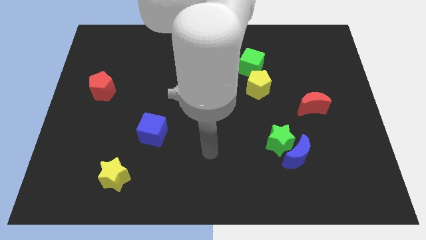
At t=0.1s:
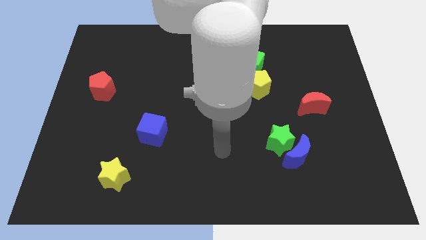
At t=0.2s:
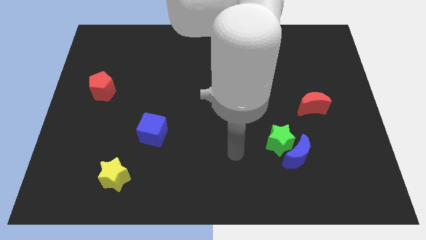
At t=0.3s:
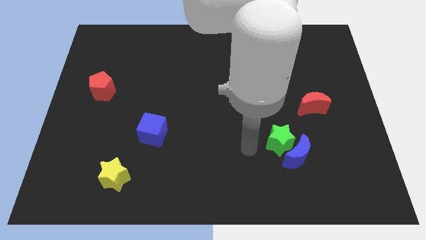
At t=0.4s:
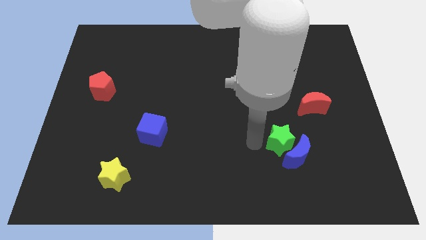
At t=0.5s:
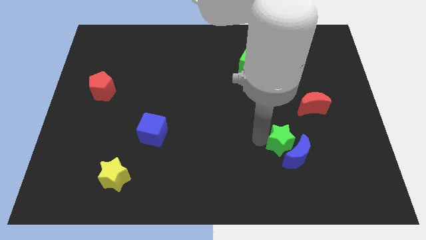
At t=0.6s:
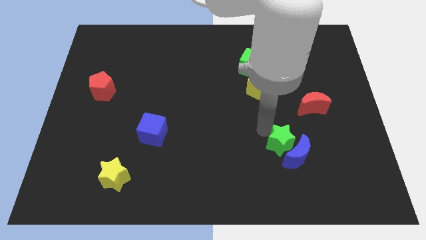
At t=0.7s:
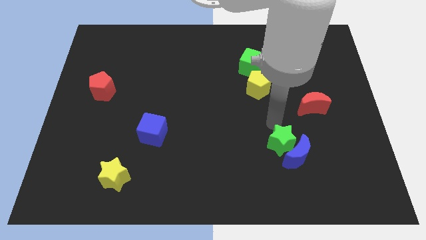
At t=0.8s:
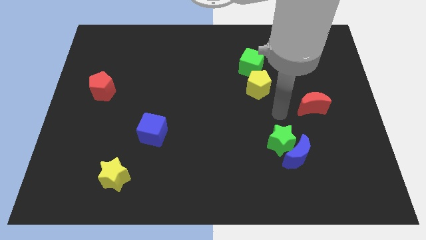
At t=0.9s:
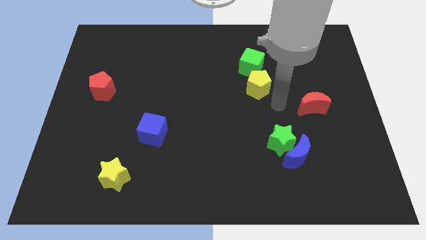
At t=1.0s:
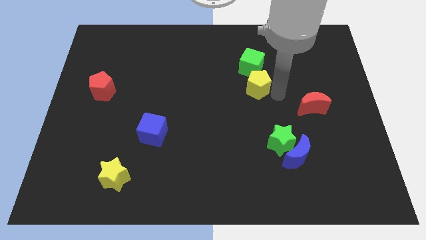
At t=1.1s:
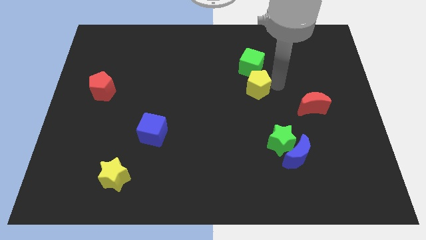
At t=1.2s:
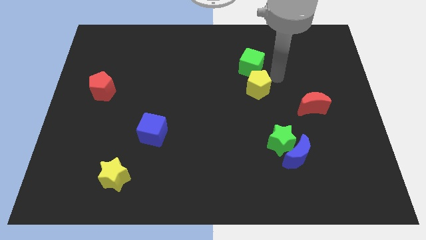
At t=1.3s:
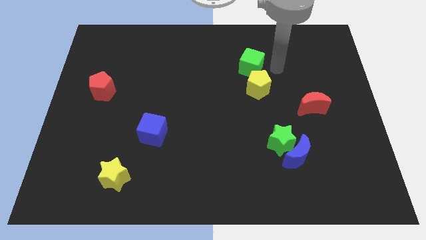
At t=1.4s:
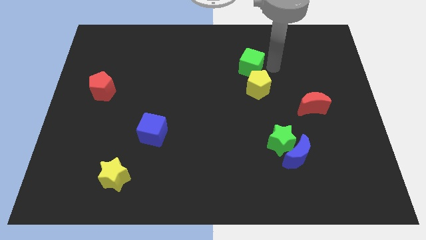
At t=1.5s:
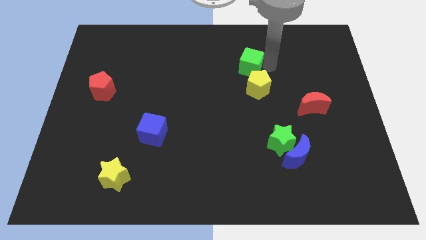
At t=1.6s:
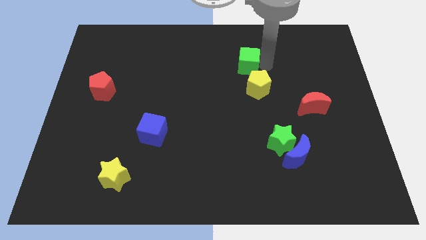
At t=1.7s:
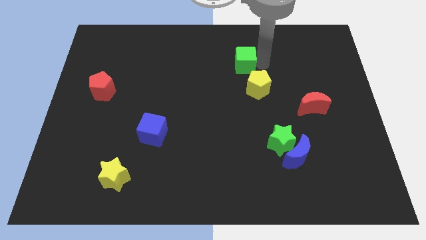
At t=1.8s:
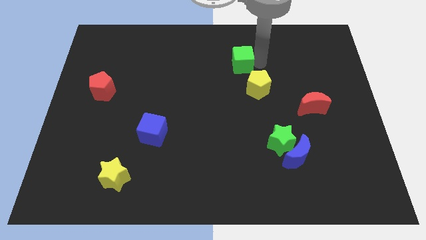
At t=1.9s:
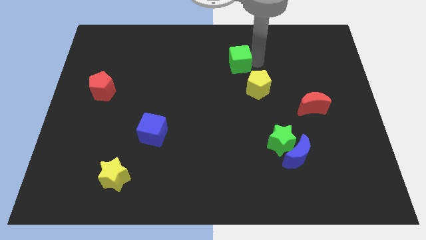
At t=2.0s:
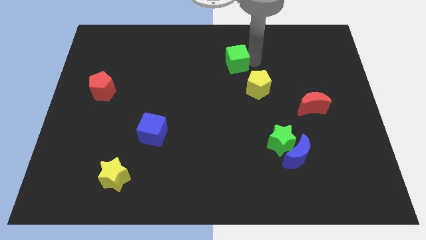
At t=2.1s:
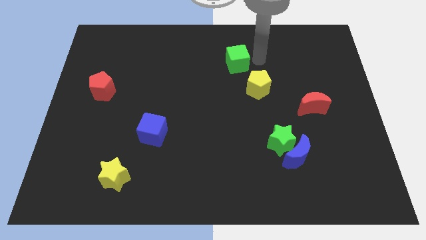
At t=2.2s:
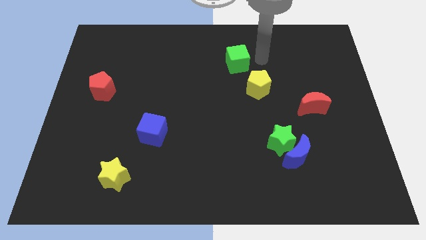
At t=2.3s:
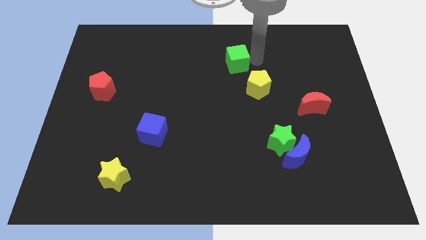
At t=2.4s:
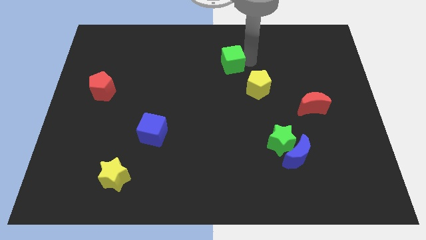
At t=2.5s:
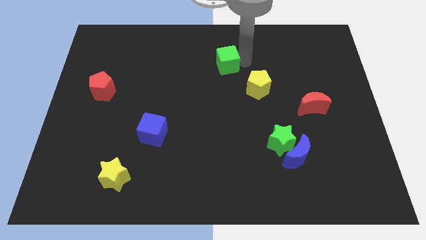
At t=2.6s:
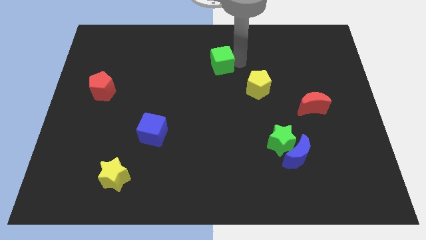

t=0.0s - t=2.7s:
move the green cube to the left somewhat

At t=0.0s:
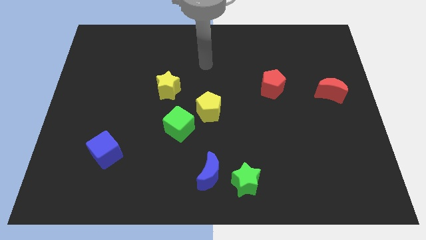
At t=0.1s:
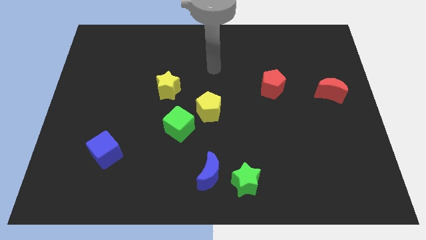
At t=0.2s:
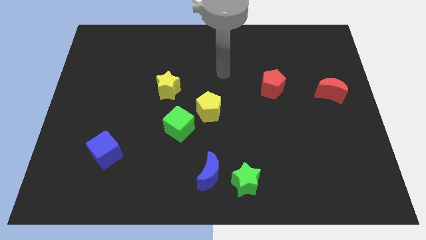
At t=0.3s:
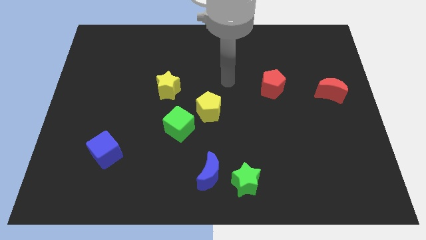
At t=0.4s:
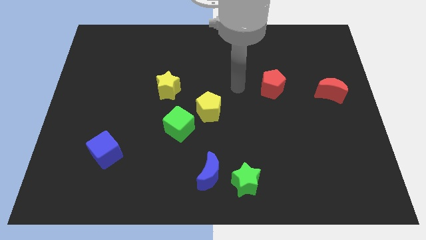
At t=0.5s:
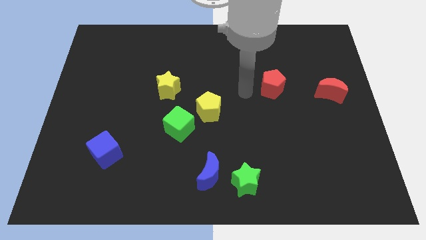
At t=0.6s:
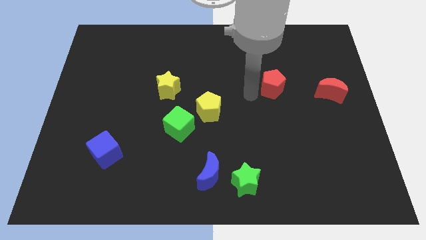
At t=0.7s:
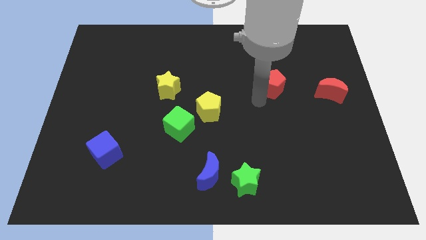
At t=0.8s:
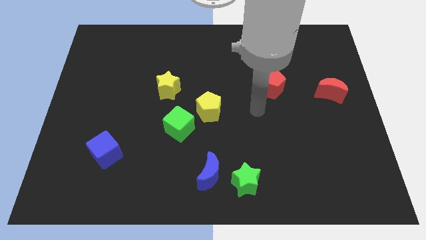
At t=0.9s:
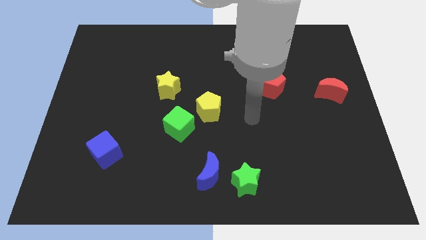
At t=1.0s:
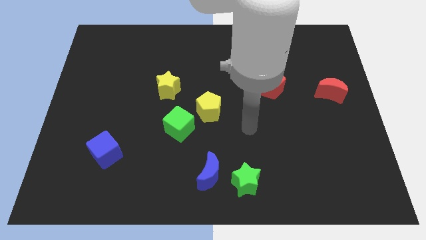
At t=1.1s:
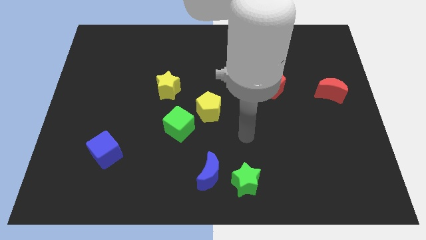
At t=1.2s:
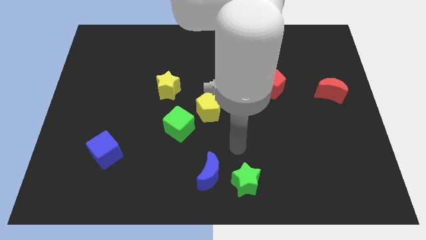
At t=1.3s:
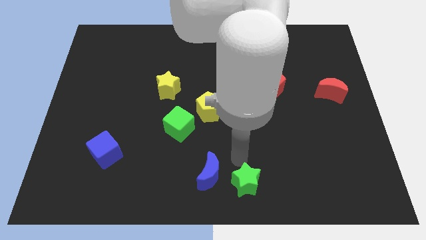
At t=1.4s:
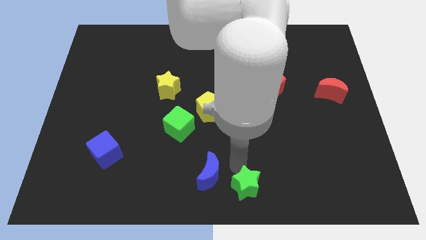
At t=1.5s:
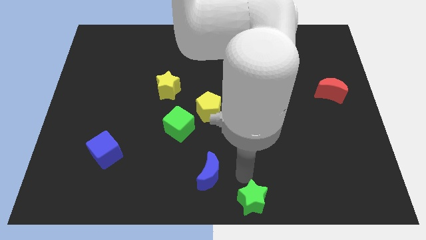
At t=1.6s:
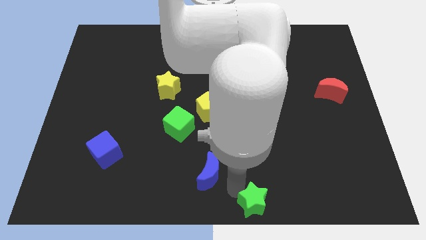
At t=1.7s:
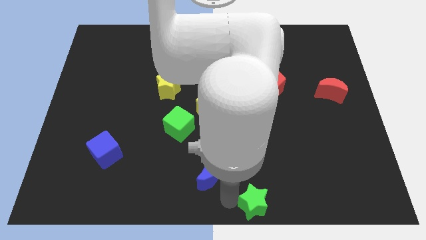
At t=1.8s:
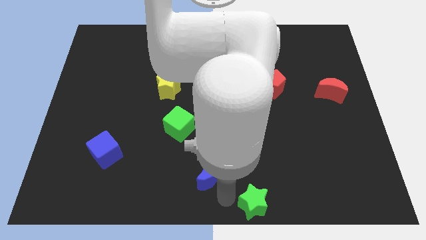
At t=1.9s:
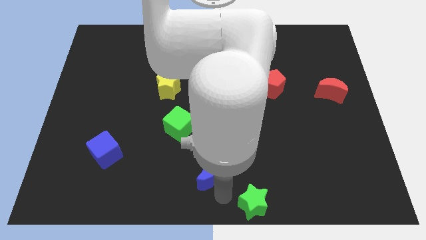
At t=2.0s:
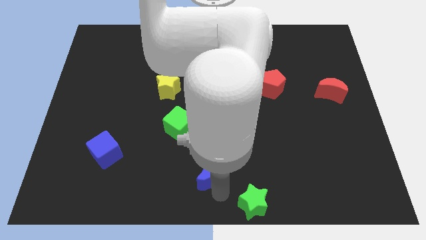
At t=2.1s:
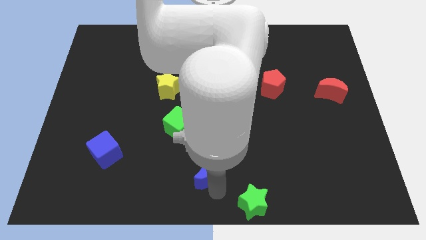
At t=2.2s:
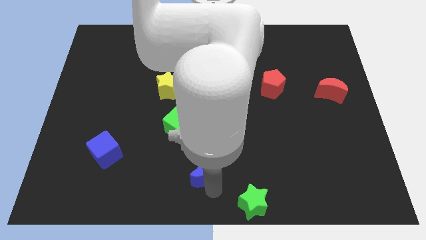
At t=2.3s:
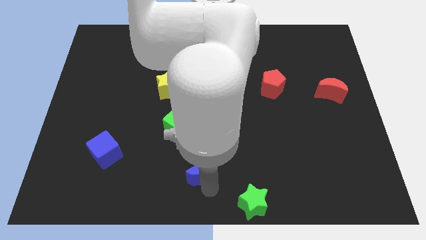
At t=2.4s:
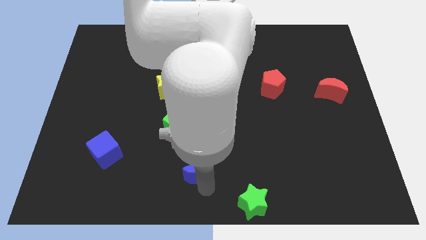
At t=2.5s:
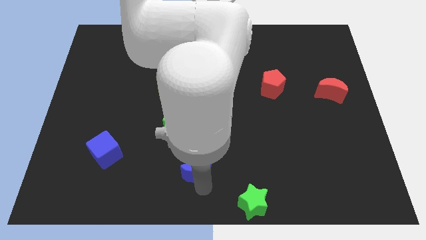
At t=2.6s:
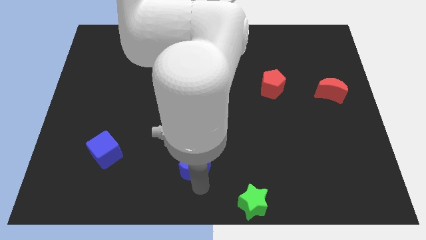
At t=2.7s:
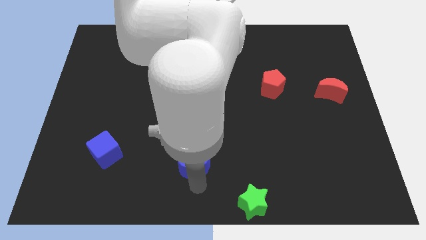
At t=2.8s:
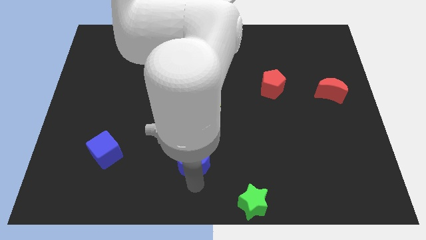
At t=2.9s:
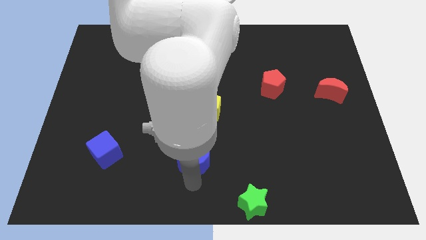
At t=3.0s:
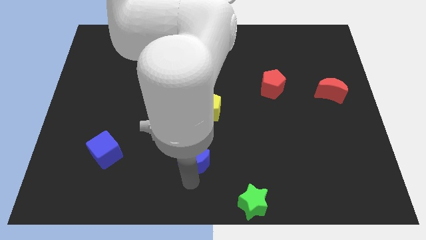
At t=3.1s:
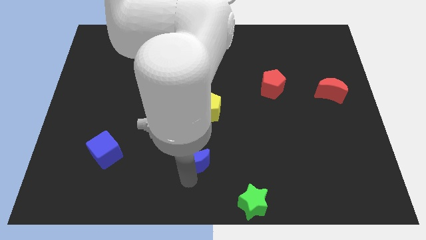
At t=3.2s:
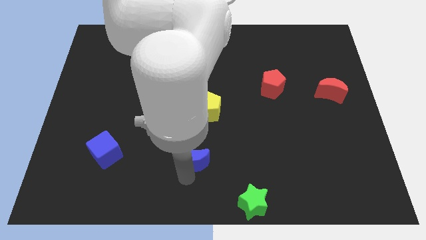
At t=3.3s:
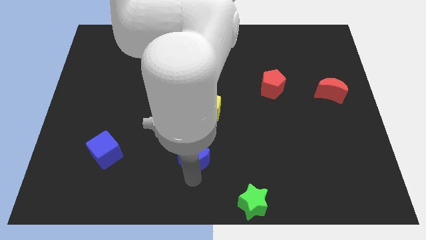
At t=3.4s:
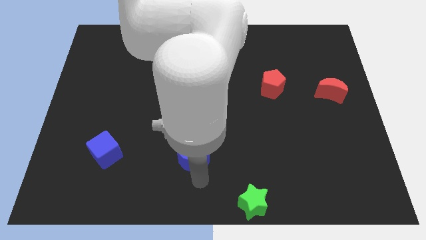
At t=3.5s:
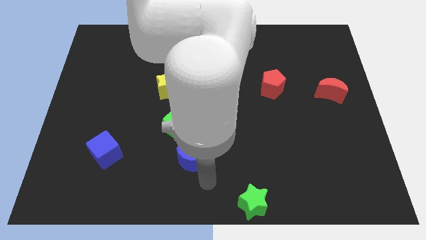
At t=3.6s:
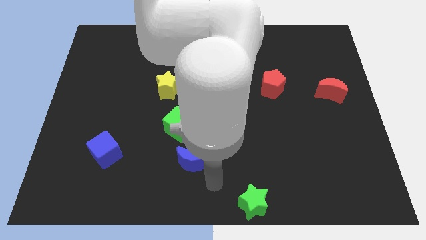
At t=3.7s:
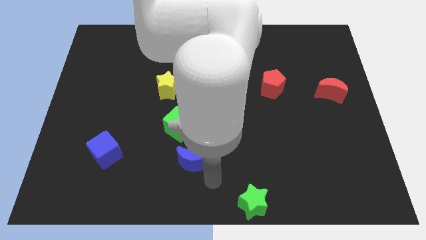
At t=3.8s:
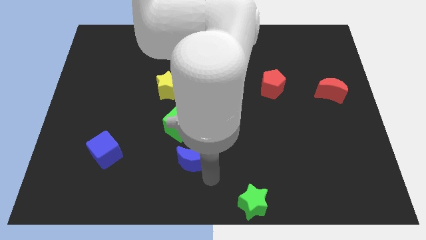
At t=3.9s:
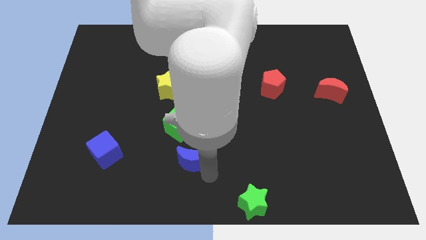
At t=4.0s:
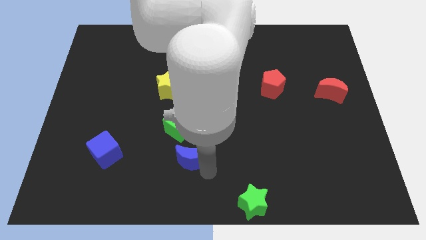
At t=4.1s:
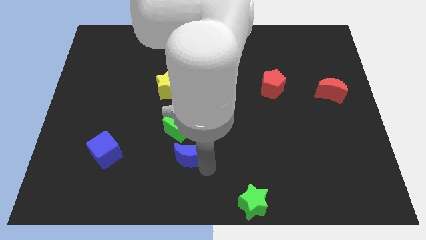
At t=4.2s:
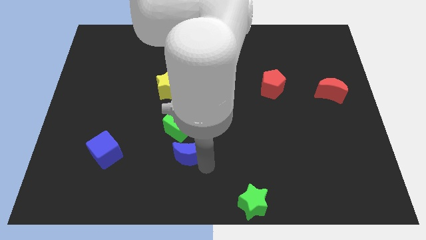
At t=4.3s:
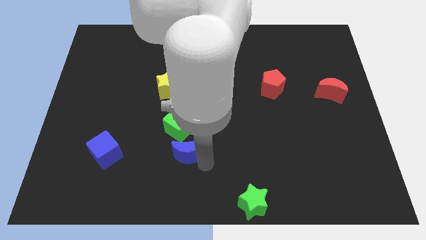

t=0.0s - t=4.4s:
slightly push the blue moon upwards and to the left diagonally

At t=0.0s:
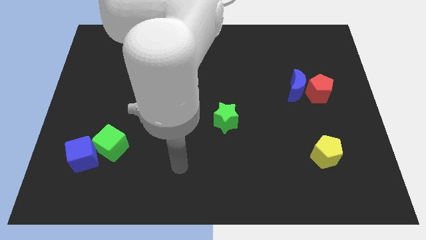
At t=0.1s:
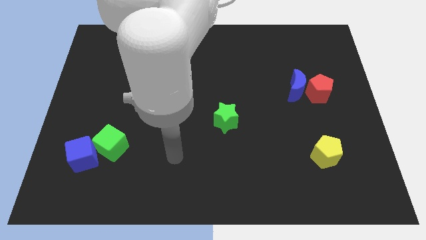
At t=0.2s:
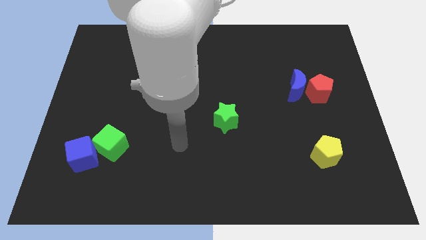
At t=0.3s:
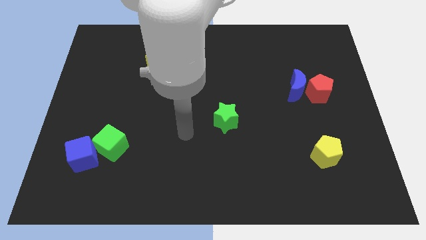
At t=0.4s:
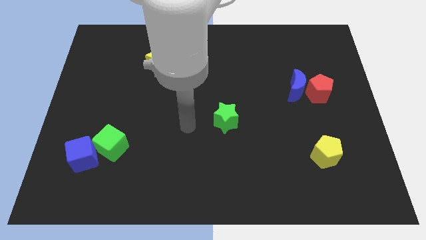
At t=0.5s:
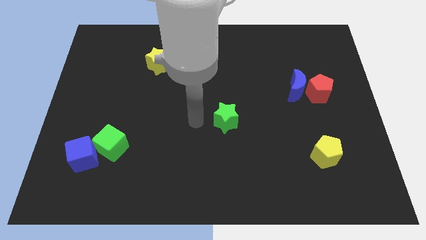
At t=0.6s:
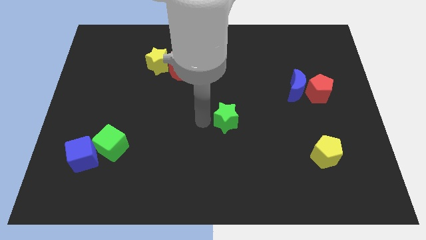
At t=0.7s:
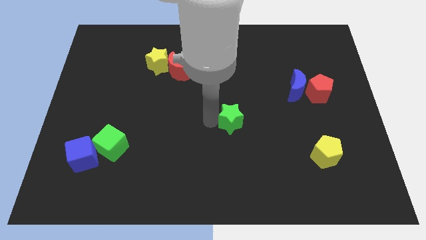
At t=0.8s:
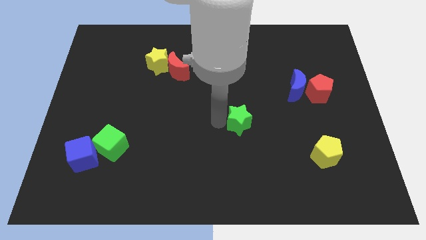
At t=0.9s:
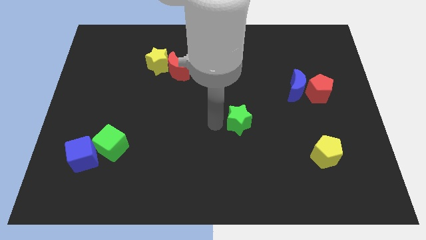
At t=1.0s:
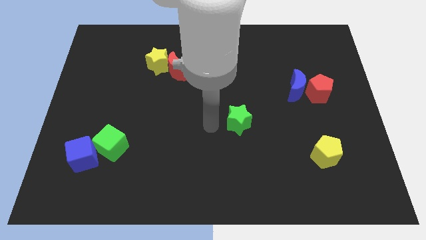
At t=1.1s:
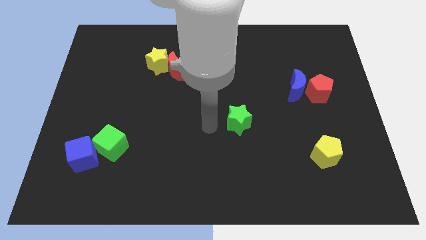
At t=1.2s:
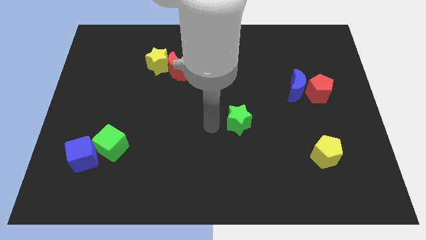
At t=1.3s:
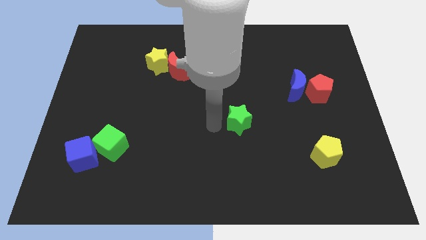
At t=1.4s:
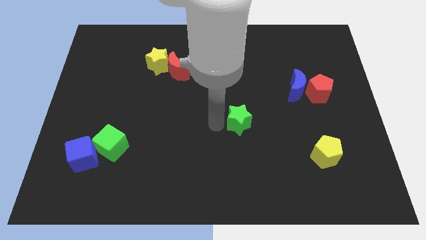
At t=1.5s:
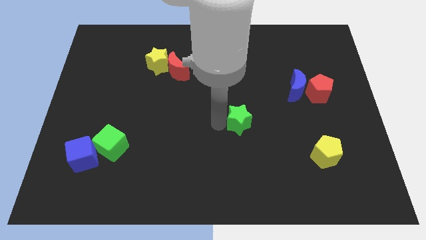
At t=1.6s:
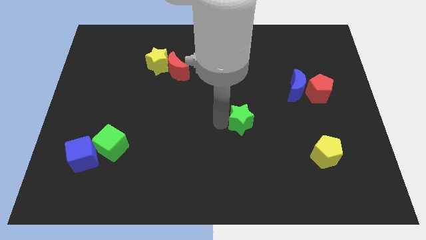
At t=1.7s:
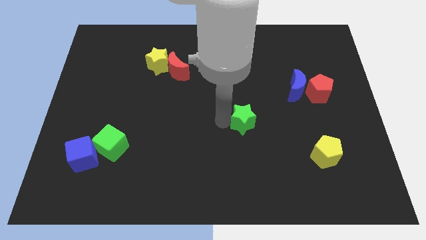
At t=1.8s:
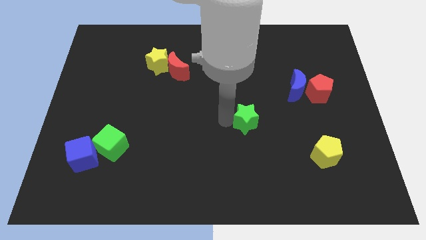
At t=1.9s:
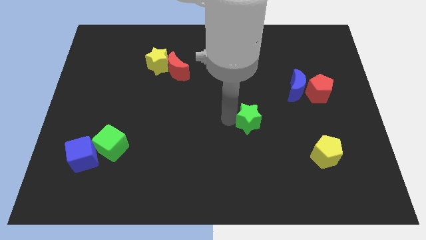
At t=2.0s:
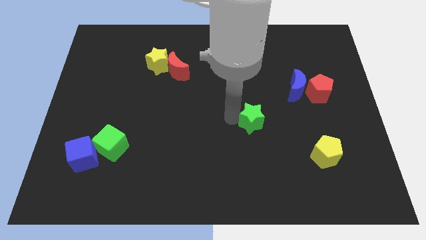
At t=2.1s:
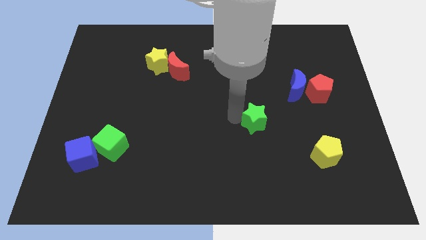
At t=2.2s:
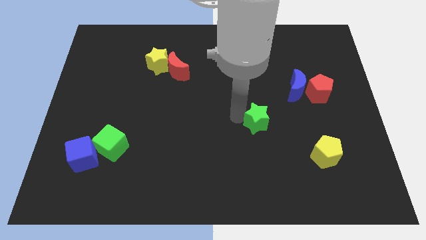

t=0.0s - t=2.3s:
push the green star right a bit
